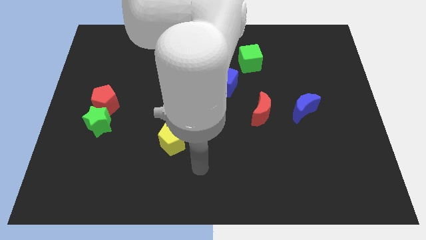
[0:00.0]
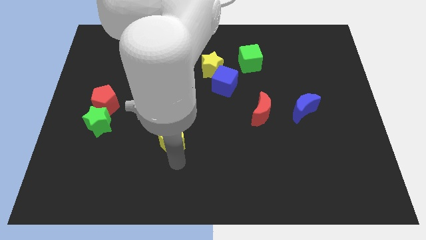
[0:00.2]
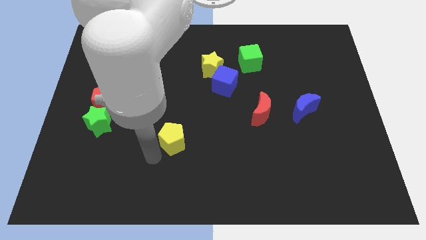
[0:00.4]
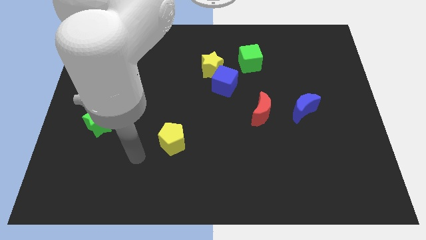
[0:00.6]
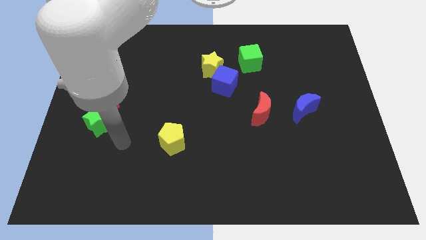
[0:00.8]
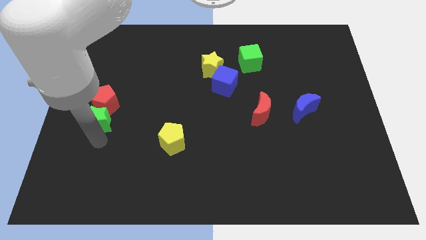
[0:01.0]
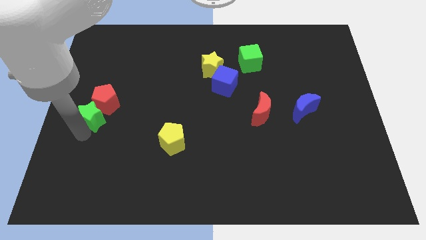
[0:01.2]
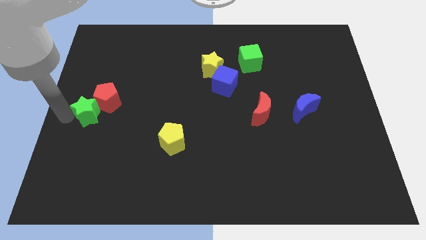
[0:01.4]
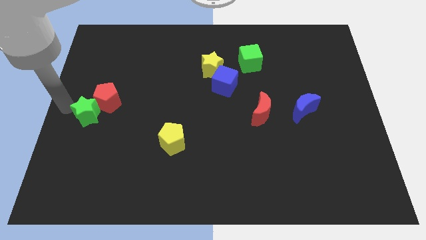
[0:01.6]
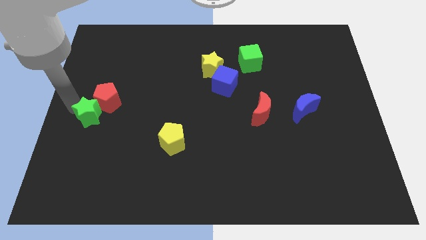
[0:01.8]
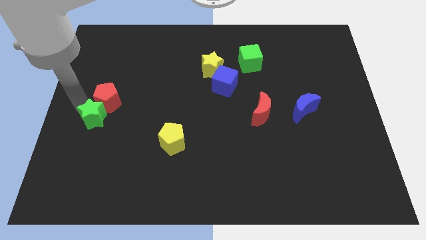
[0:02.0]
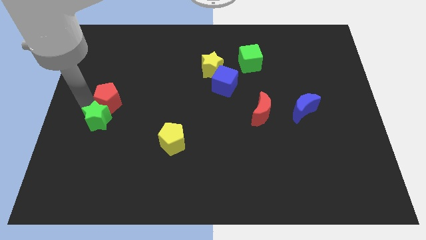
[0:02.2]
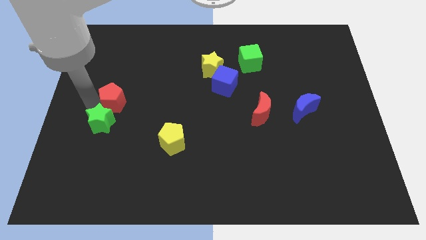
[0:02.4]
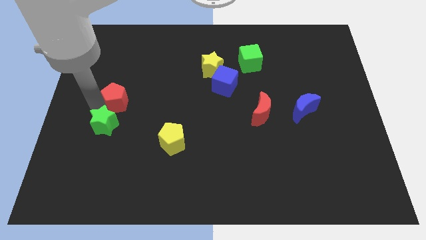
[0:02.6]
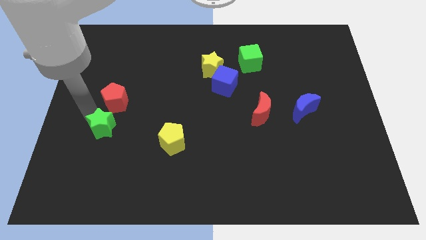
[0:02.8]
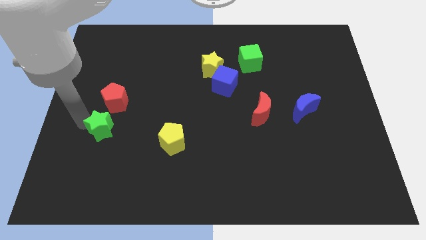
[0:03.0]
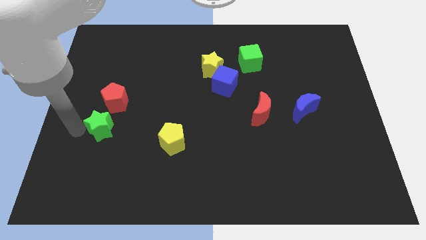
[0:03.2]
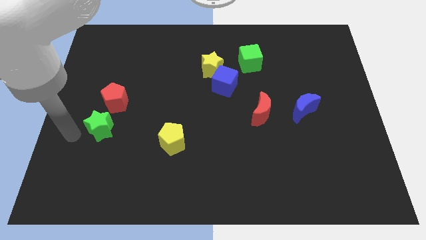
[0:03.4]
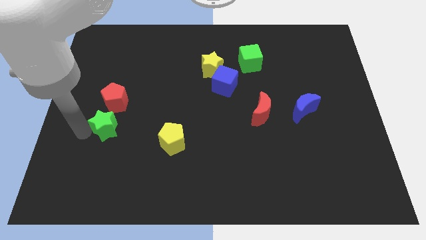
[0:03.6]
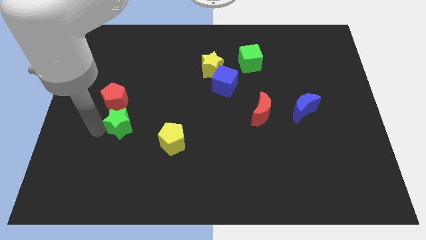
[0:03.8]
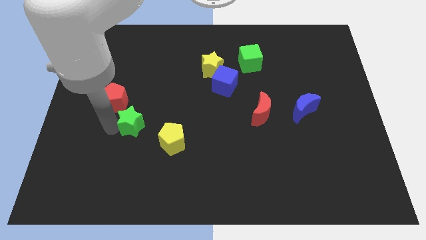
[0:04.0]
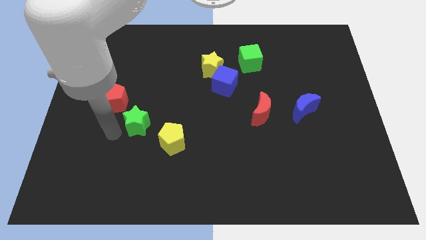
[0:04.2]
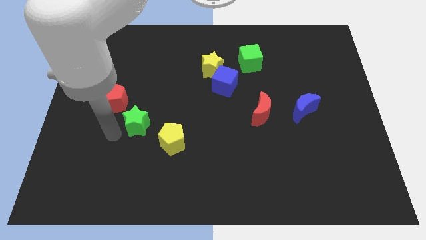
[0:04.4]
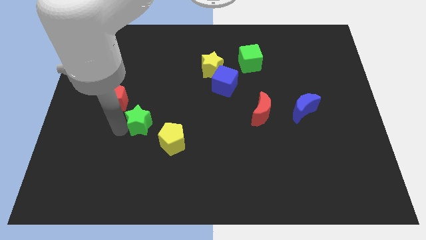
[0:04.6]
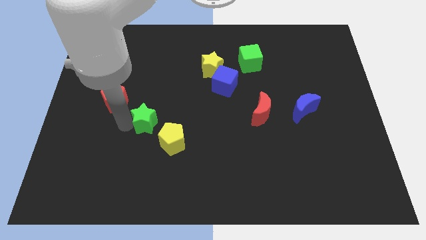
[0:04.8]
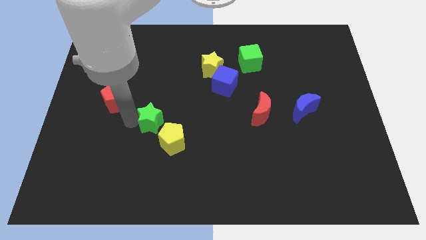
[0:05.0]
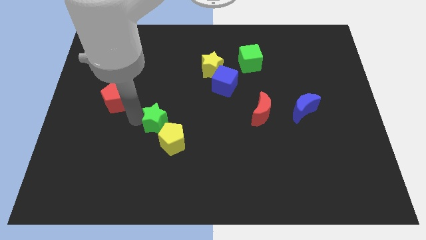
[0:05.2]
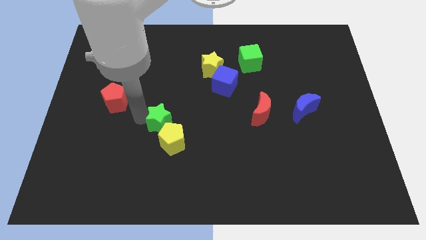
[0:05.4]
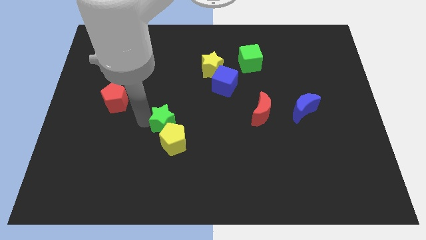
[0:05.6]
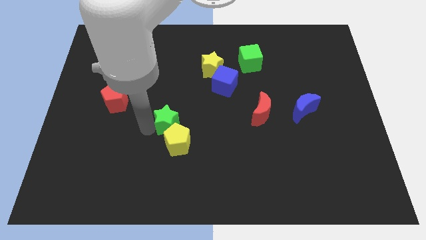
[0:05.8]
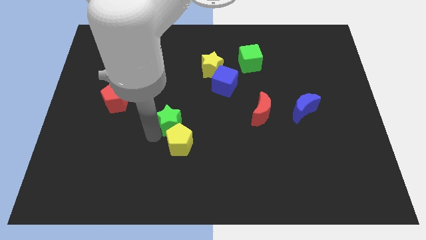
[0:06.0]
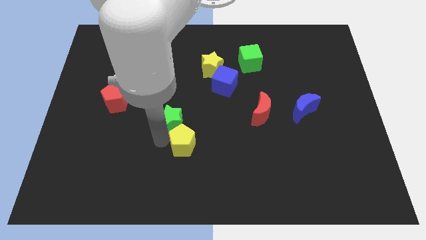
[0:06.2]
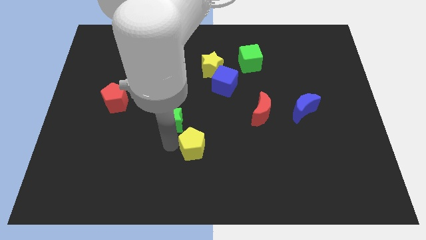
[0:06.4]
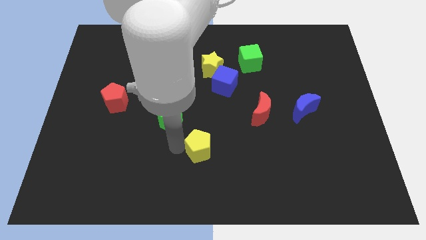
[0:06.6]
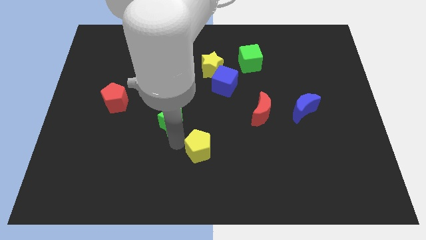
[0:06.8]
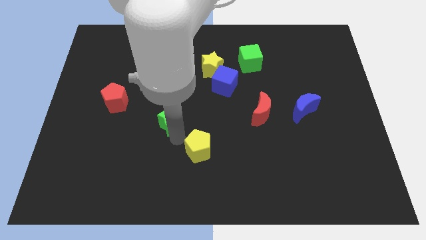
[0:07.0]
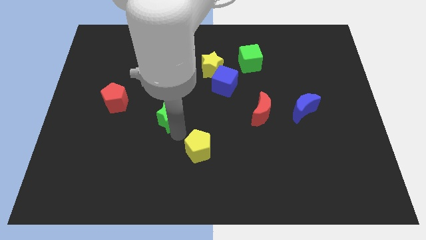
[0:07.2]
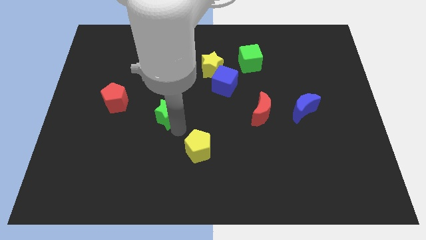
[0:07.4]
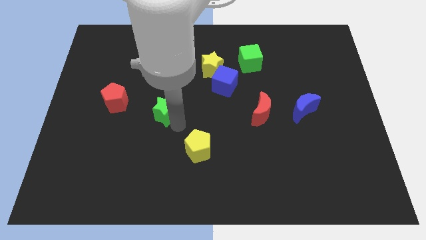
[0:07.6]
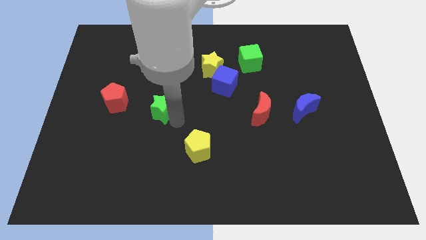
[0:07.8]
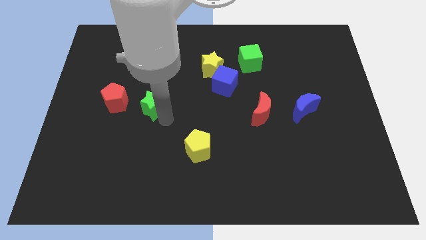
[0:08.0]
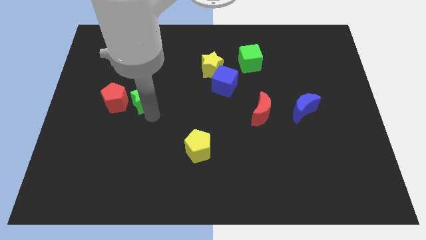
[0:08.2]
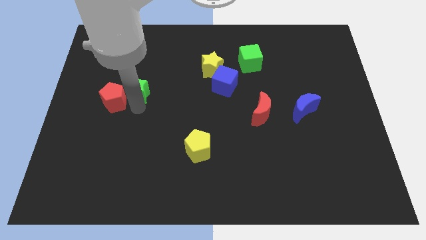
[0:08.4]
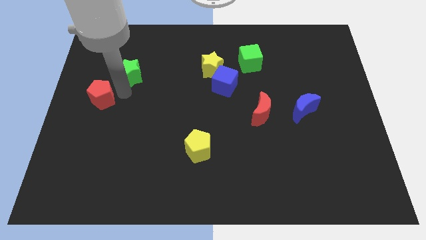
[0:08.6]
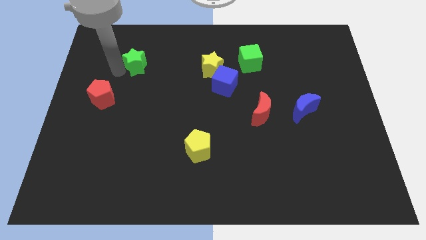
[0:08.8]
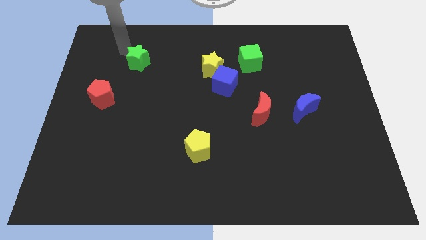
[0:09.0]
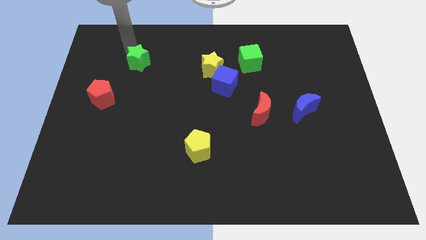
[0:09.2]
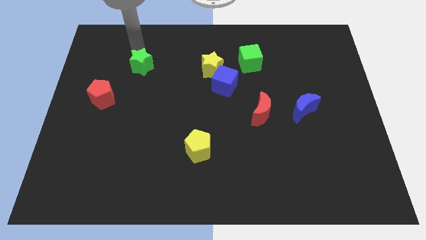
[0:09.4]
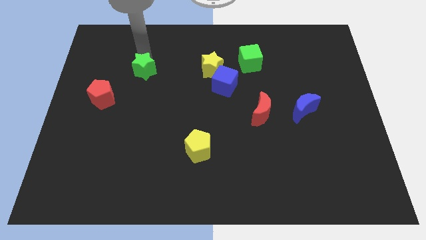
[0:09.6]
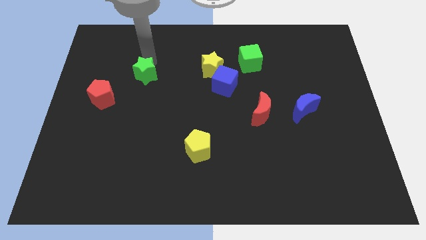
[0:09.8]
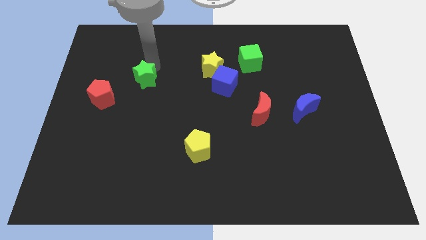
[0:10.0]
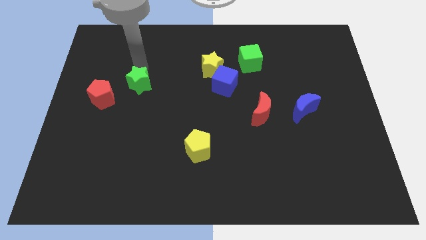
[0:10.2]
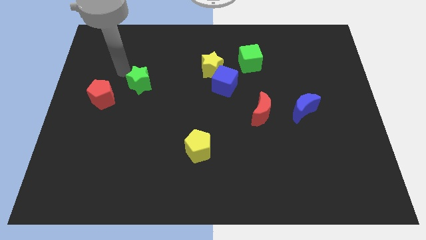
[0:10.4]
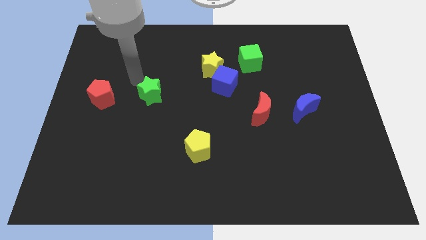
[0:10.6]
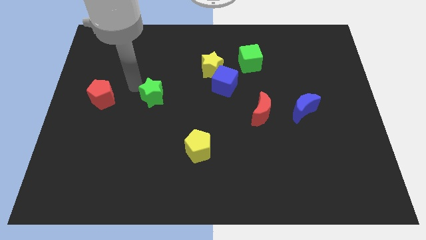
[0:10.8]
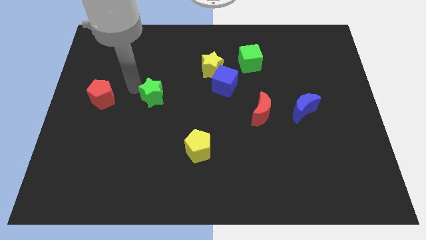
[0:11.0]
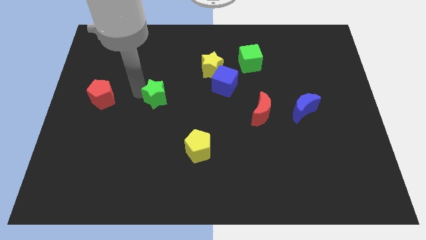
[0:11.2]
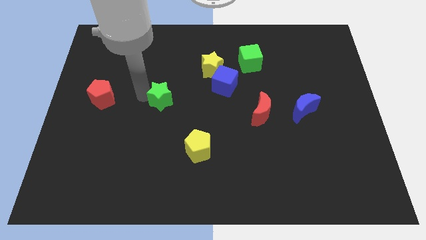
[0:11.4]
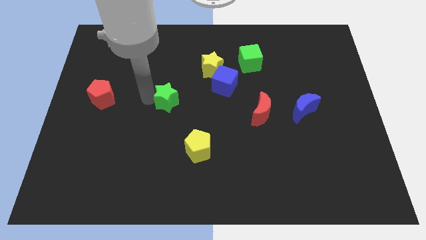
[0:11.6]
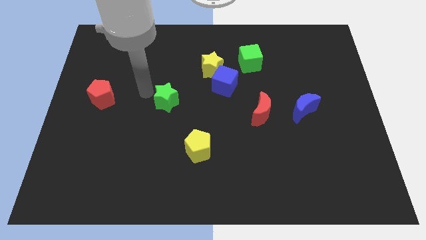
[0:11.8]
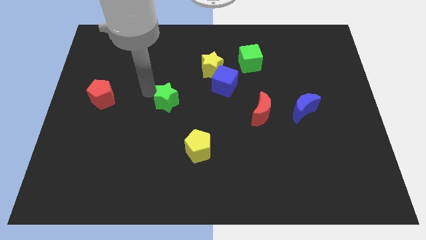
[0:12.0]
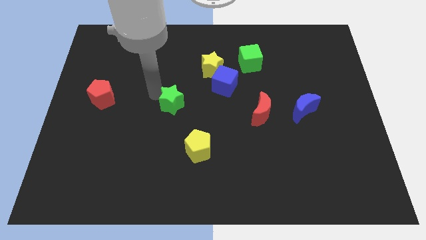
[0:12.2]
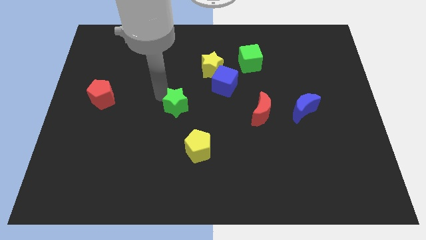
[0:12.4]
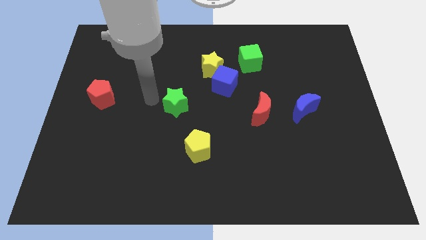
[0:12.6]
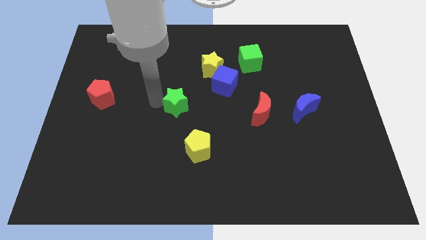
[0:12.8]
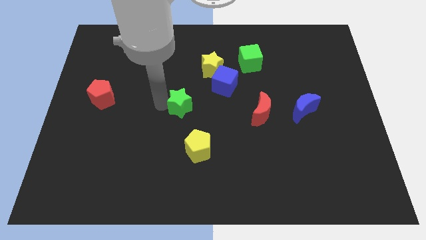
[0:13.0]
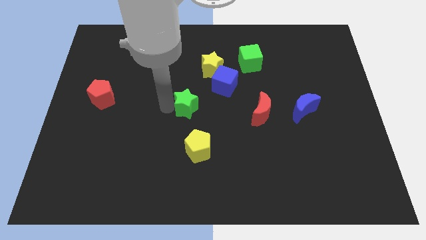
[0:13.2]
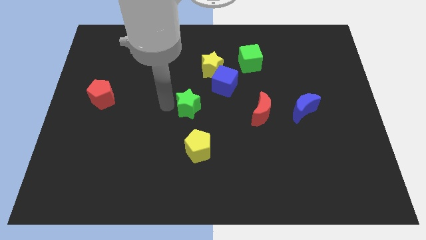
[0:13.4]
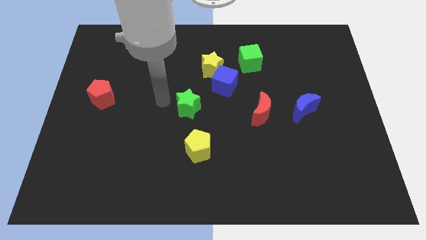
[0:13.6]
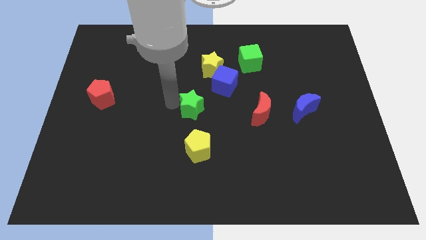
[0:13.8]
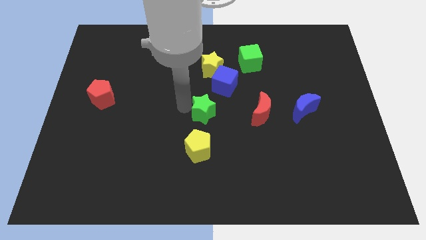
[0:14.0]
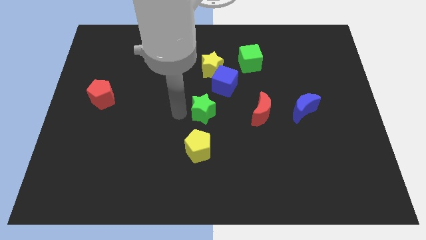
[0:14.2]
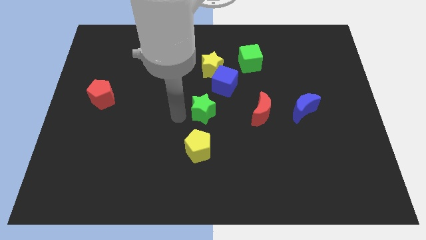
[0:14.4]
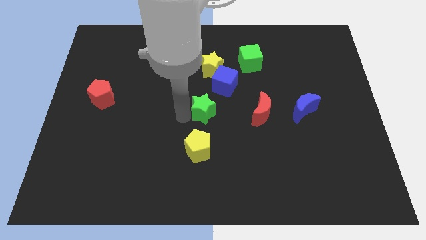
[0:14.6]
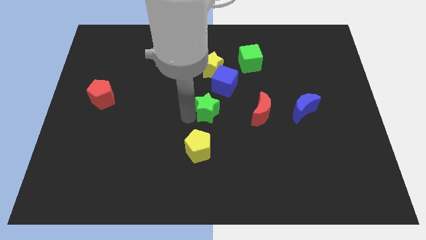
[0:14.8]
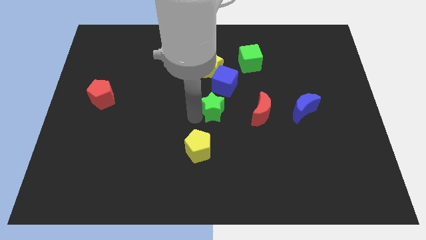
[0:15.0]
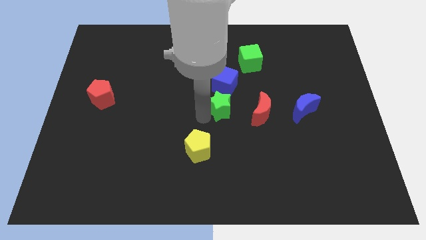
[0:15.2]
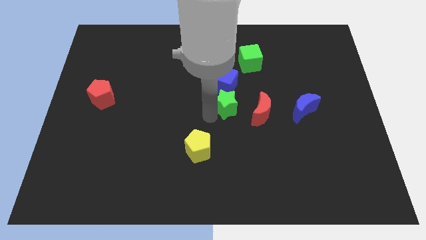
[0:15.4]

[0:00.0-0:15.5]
push the green star diagonally down and to the right of the blue cube

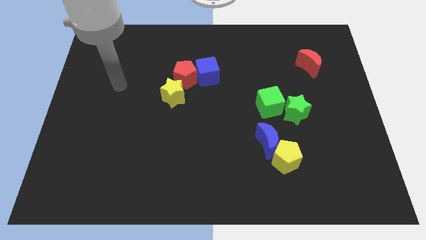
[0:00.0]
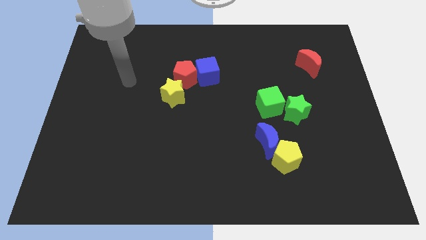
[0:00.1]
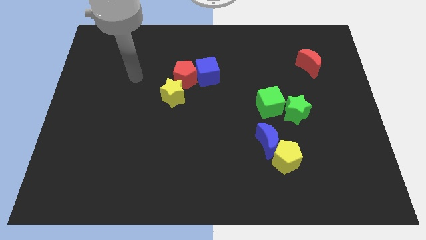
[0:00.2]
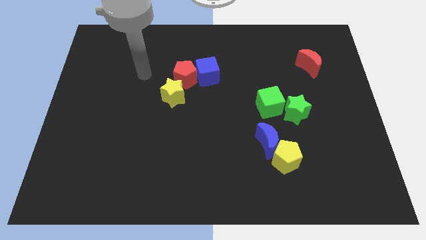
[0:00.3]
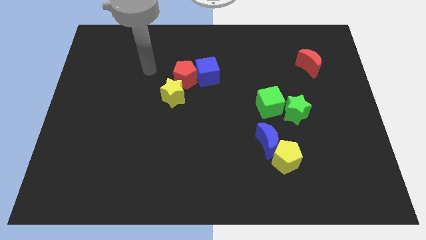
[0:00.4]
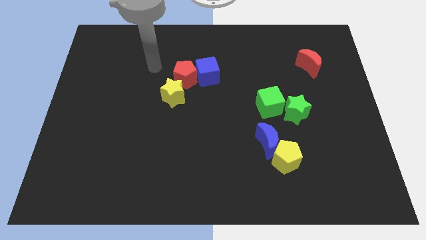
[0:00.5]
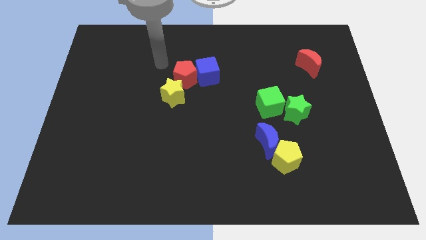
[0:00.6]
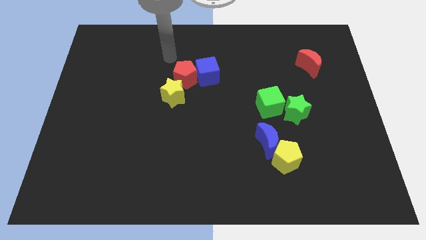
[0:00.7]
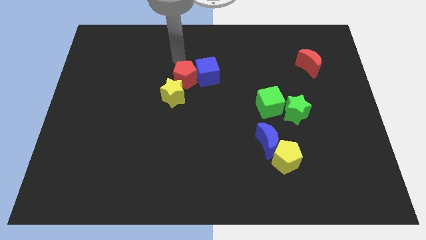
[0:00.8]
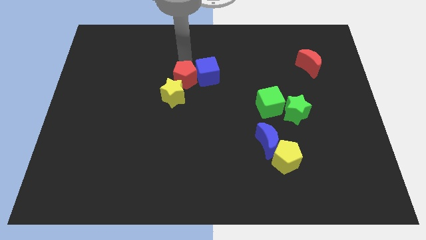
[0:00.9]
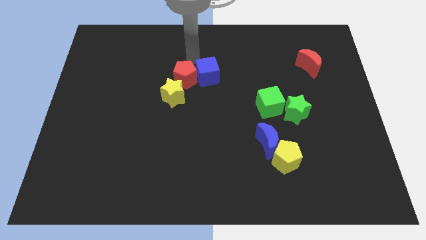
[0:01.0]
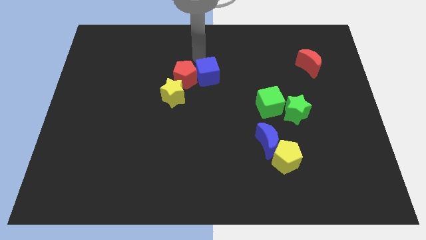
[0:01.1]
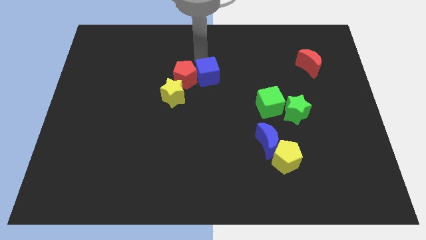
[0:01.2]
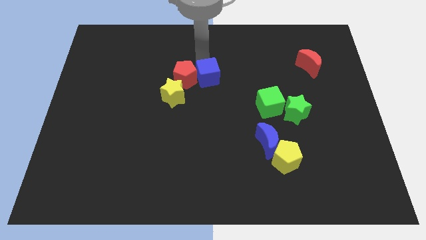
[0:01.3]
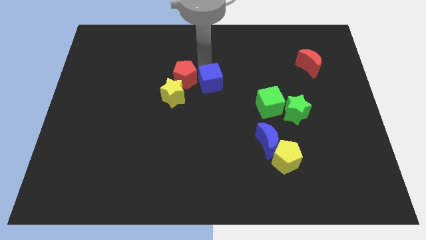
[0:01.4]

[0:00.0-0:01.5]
put the blue cube right of the yellow star
